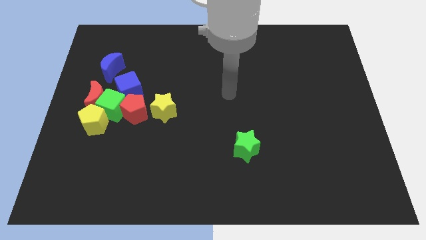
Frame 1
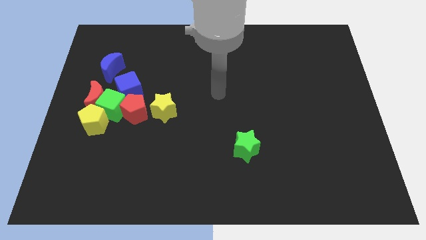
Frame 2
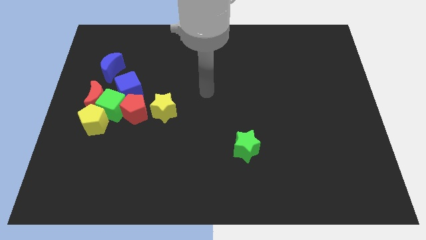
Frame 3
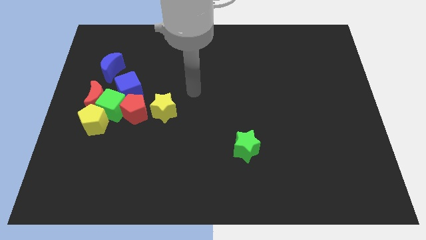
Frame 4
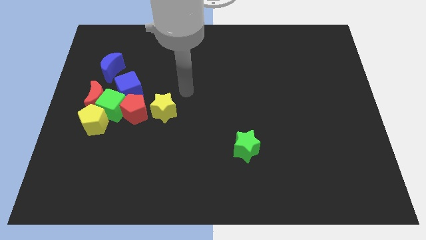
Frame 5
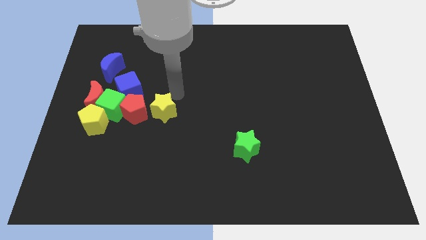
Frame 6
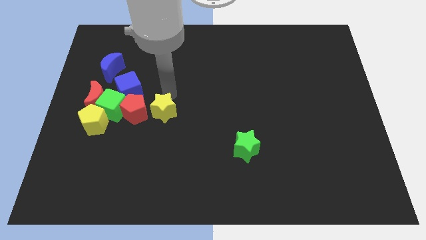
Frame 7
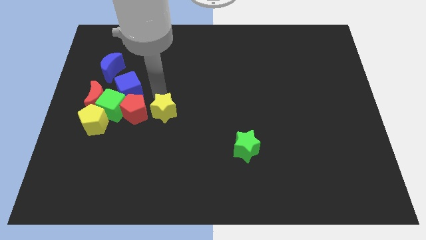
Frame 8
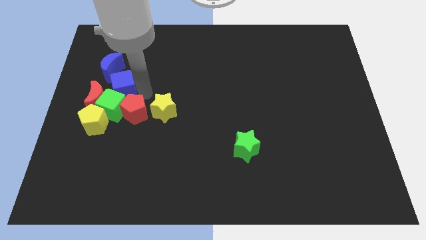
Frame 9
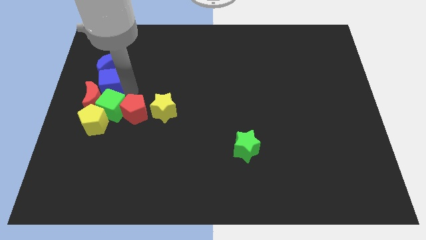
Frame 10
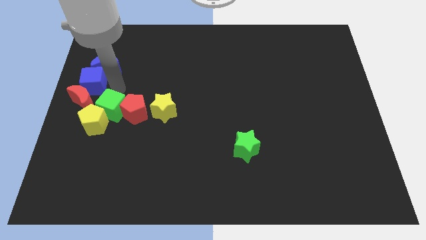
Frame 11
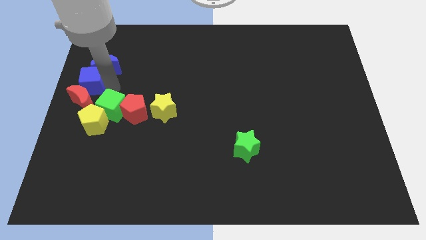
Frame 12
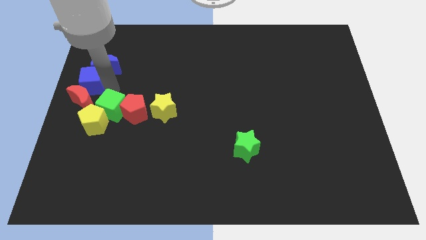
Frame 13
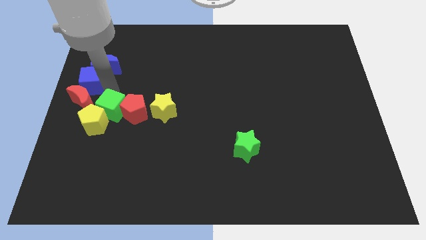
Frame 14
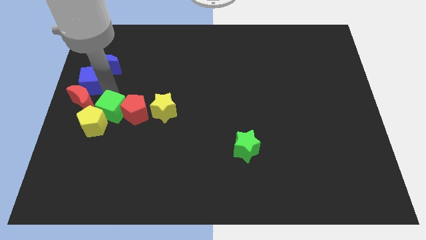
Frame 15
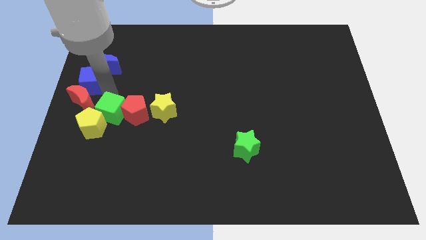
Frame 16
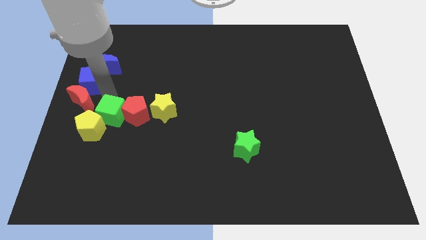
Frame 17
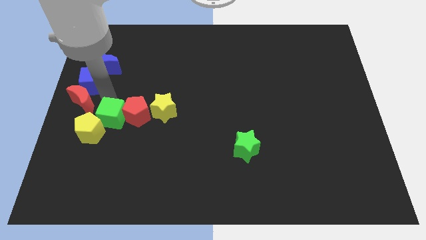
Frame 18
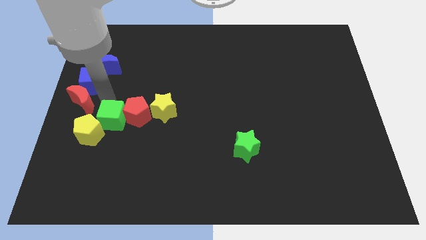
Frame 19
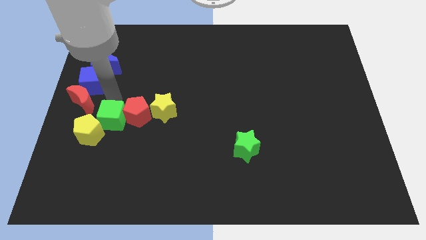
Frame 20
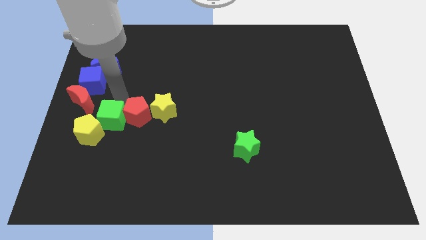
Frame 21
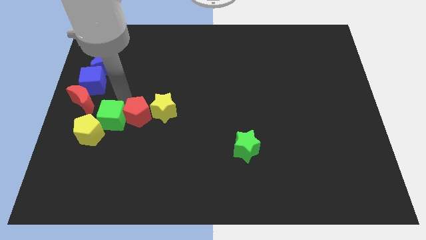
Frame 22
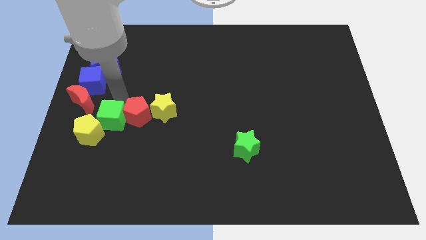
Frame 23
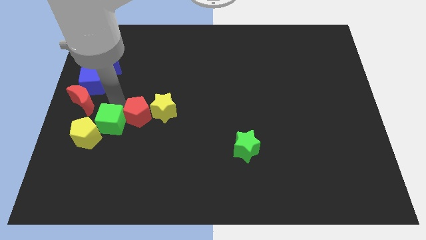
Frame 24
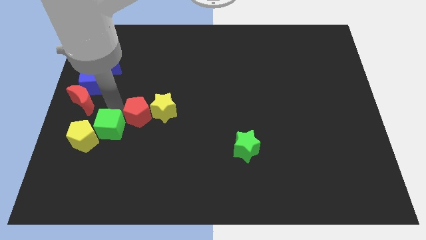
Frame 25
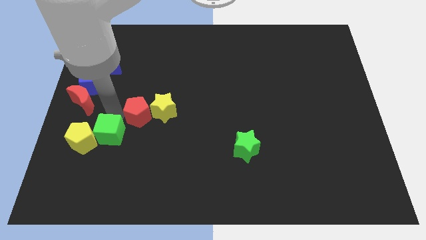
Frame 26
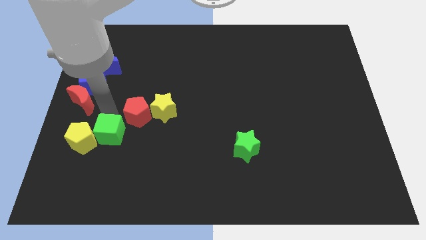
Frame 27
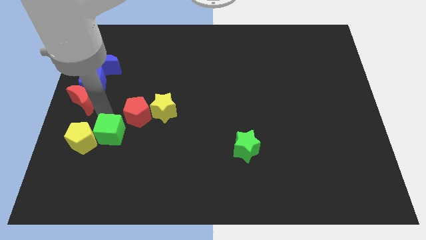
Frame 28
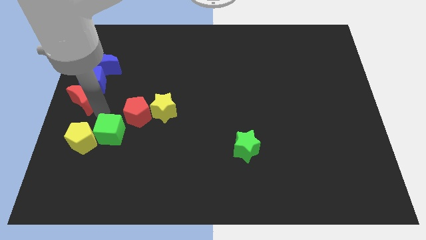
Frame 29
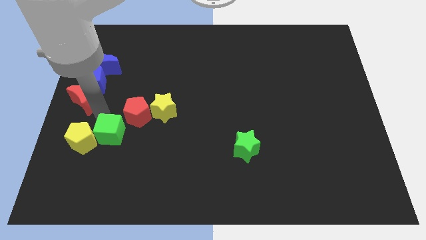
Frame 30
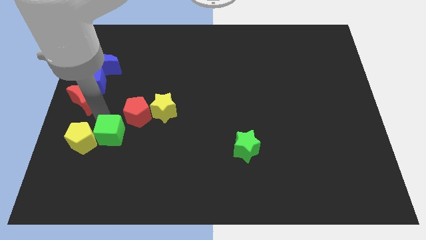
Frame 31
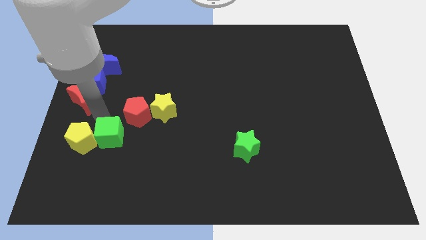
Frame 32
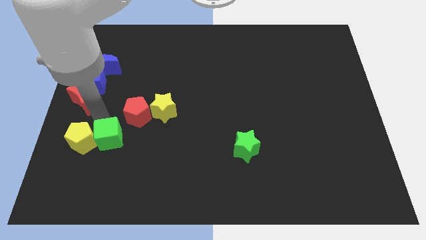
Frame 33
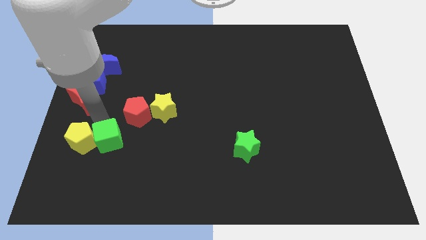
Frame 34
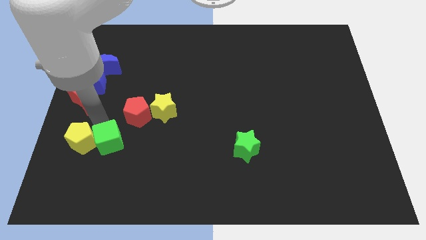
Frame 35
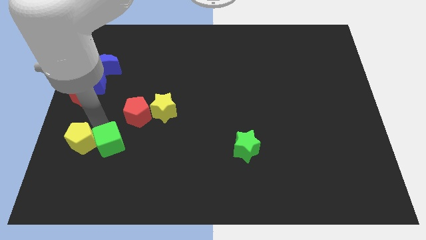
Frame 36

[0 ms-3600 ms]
move the green cube away from the group of blocks

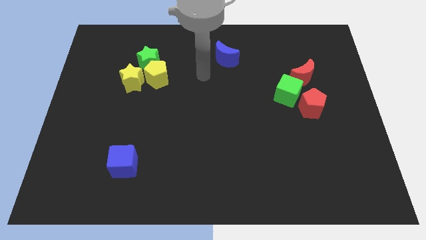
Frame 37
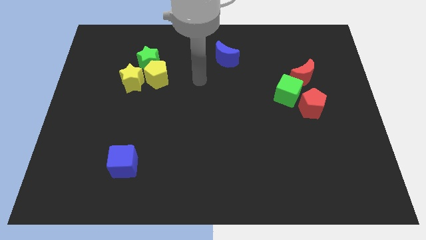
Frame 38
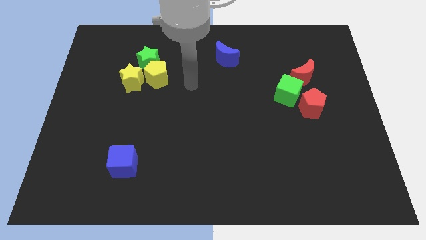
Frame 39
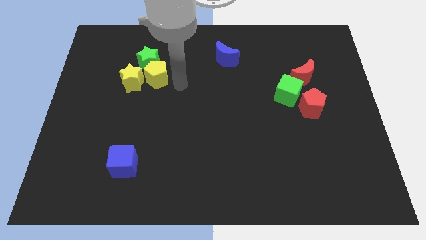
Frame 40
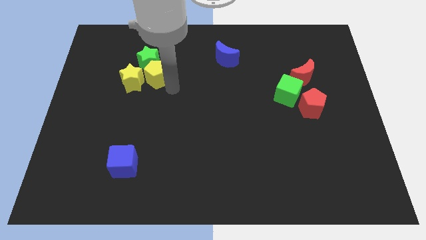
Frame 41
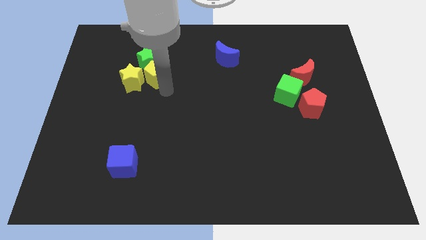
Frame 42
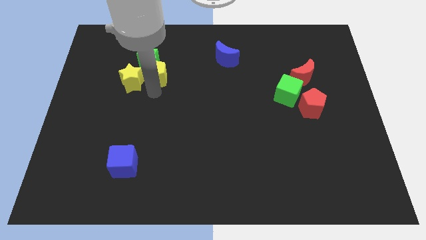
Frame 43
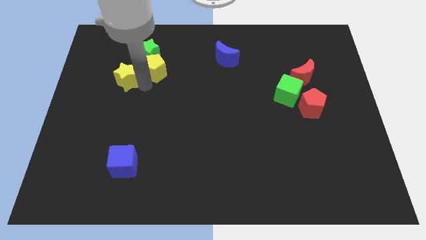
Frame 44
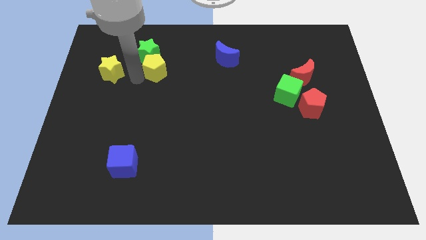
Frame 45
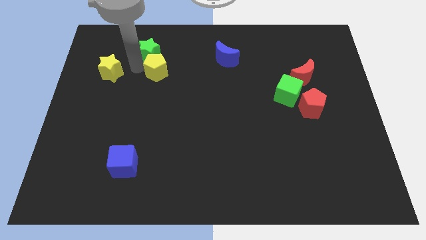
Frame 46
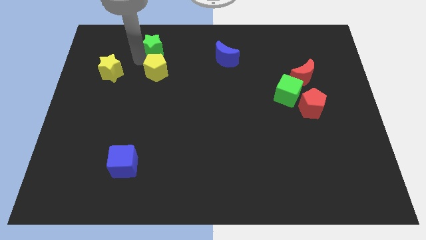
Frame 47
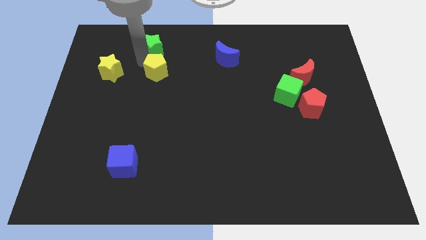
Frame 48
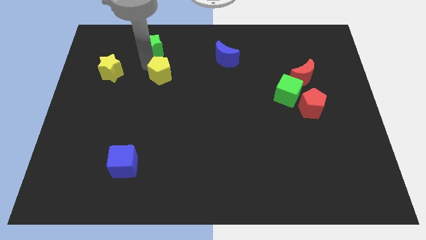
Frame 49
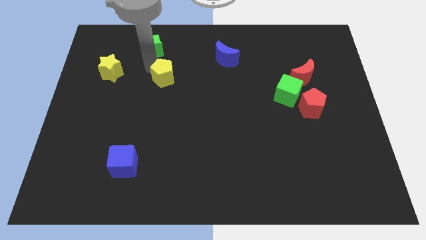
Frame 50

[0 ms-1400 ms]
separate the yellow pentagon from the green star and yellow star

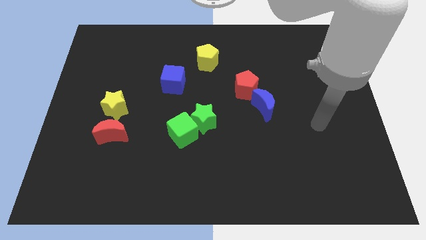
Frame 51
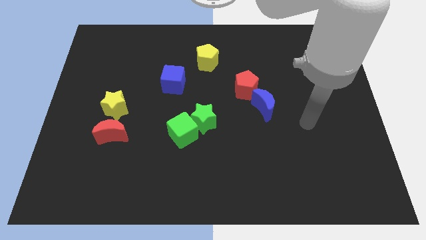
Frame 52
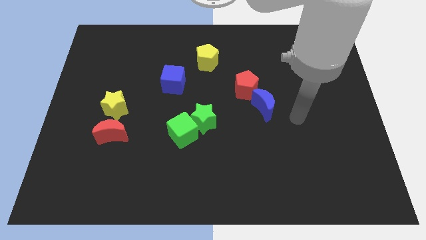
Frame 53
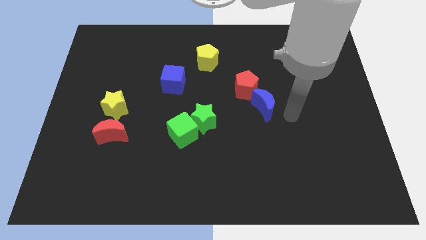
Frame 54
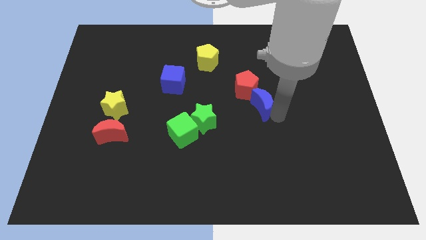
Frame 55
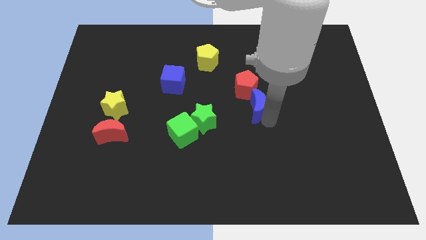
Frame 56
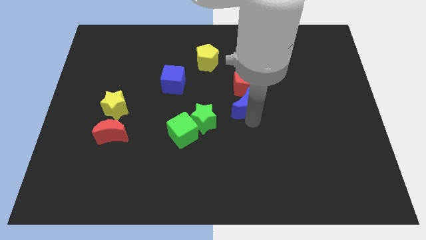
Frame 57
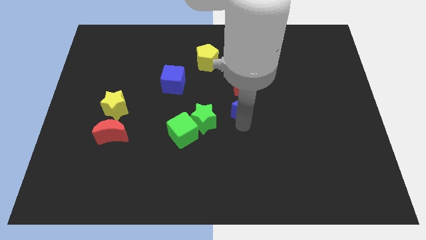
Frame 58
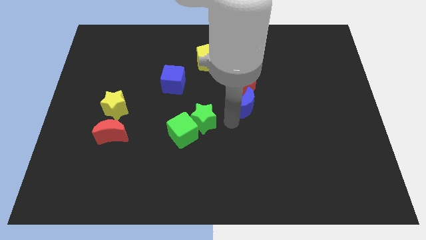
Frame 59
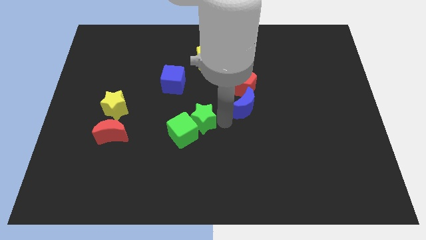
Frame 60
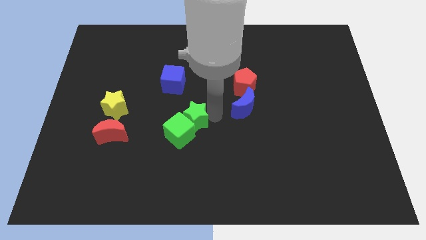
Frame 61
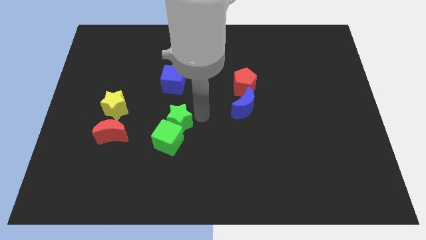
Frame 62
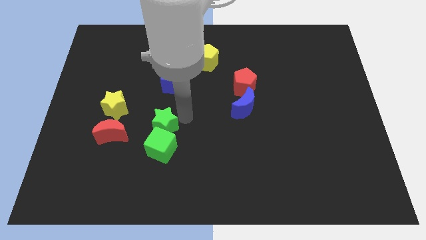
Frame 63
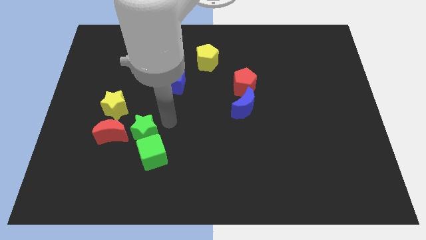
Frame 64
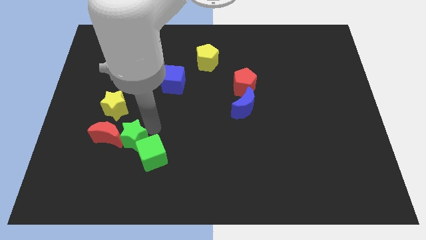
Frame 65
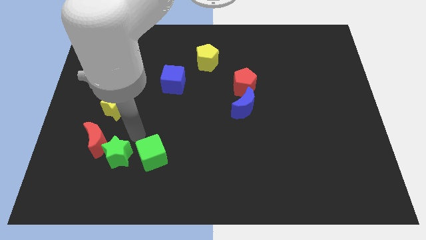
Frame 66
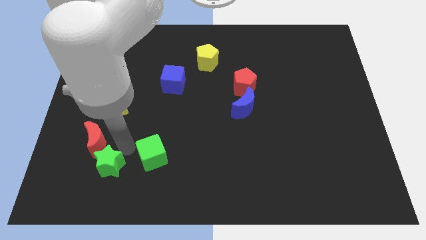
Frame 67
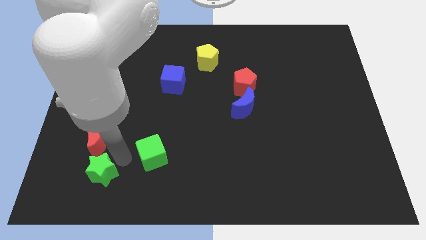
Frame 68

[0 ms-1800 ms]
move the green cube away from the green star

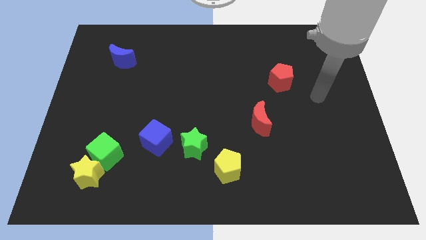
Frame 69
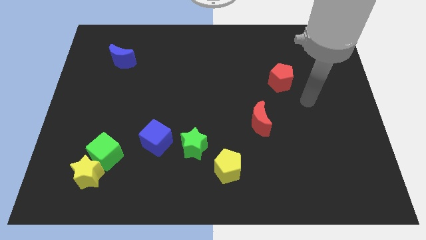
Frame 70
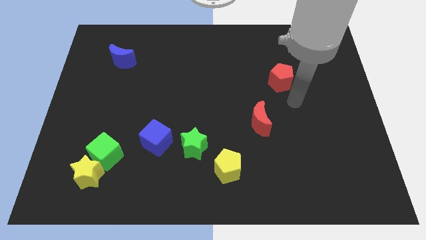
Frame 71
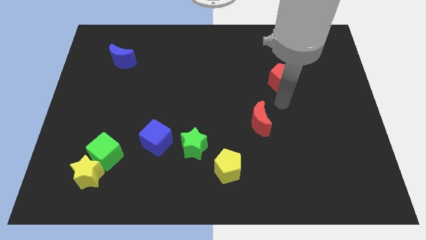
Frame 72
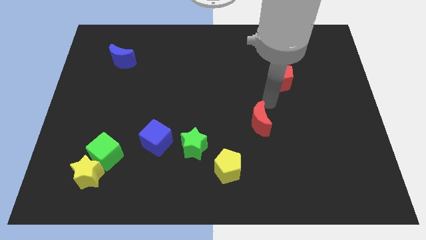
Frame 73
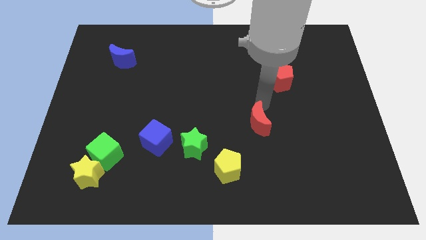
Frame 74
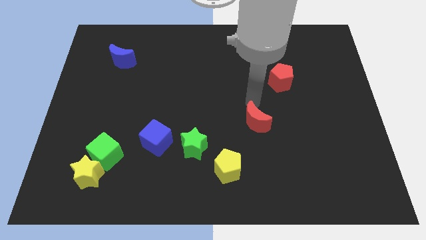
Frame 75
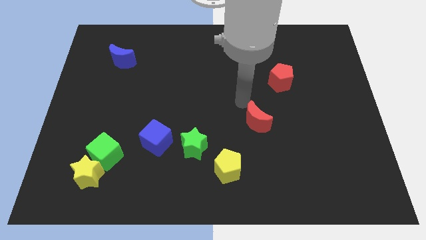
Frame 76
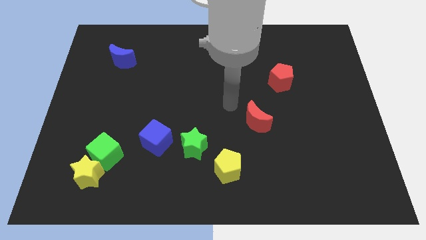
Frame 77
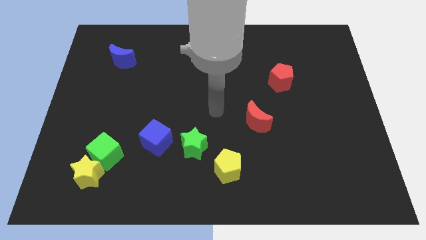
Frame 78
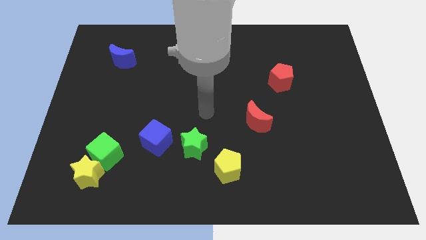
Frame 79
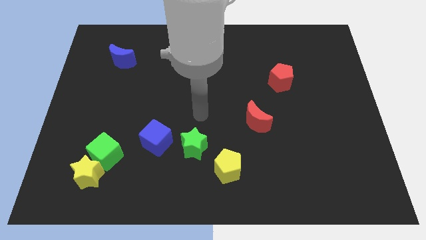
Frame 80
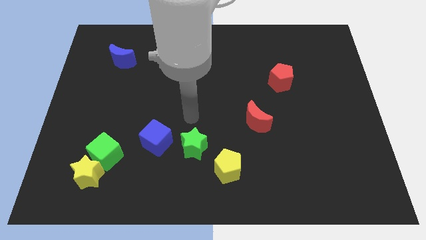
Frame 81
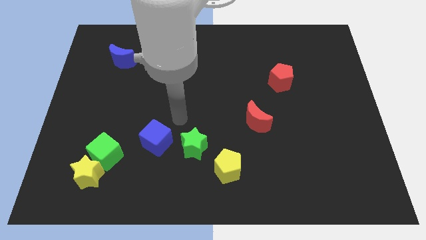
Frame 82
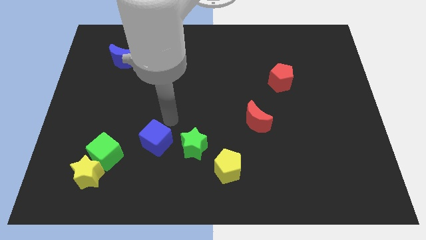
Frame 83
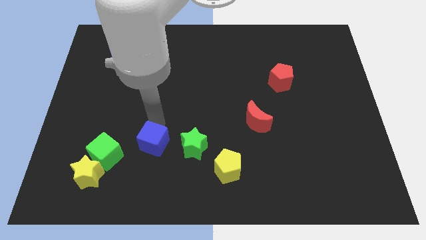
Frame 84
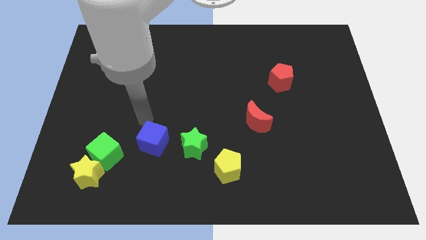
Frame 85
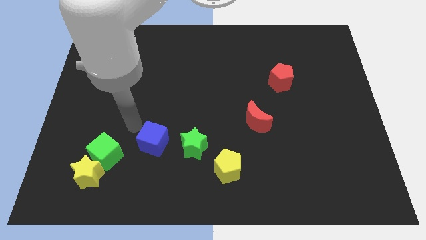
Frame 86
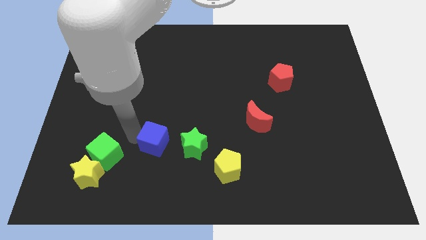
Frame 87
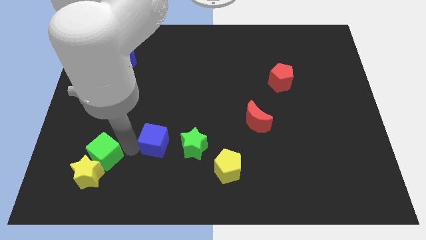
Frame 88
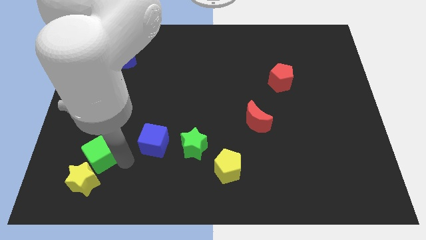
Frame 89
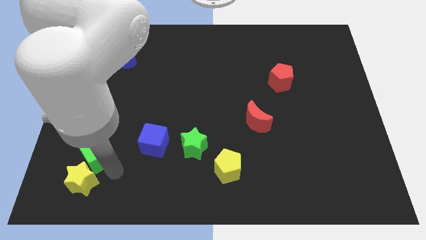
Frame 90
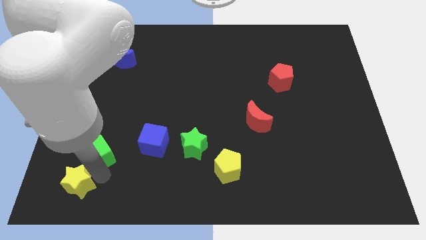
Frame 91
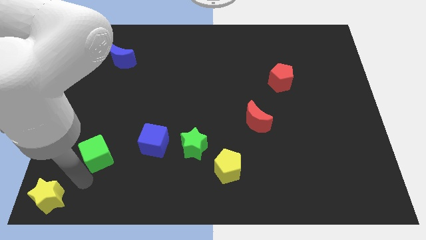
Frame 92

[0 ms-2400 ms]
pull the green cube apart from the yellow star

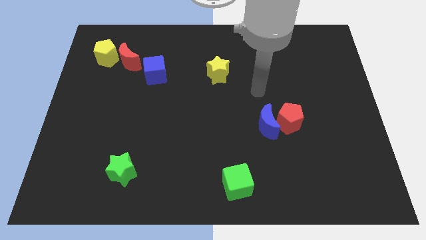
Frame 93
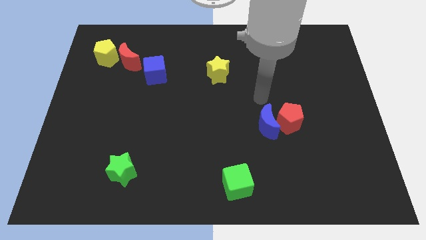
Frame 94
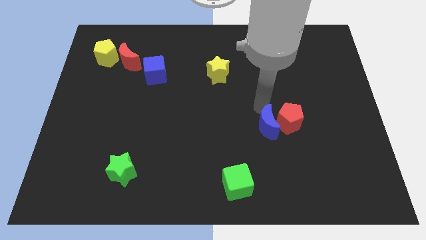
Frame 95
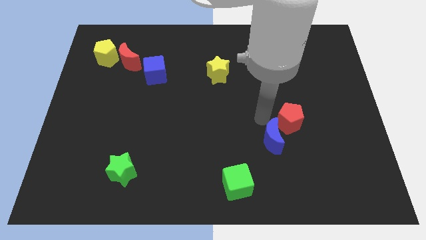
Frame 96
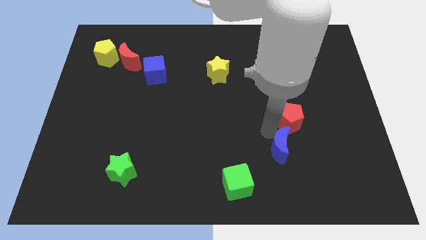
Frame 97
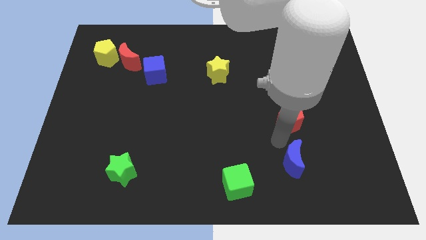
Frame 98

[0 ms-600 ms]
separate the red pentagon from the blue moon
